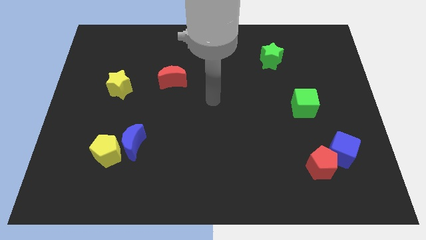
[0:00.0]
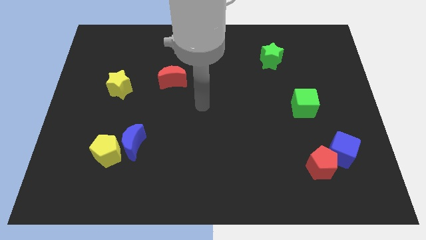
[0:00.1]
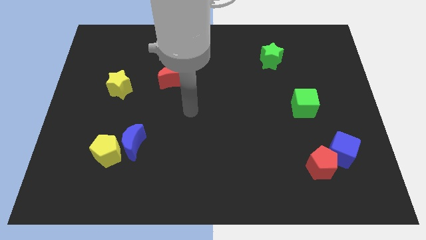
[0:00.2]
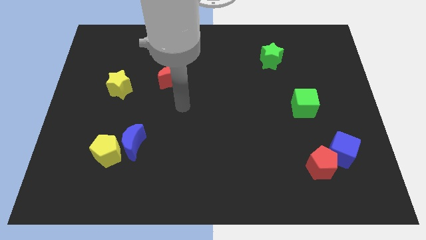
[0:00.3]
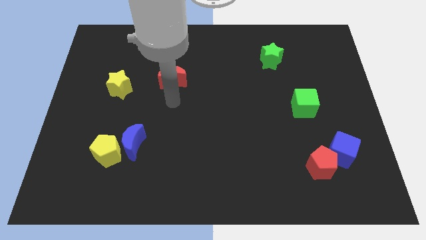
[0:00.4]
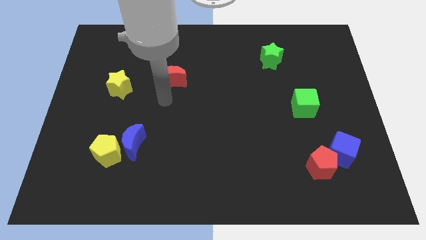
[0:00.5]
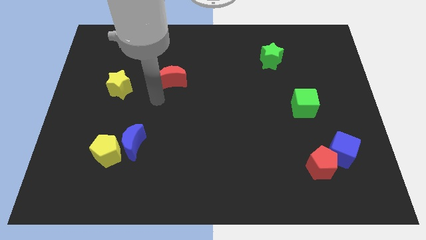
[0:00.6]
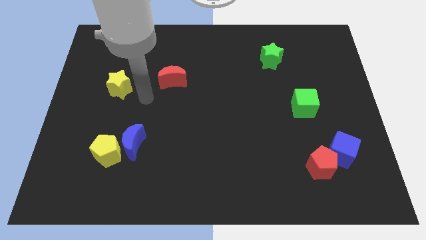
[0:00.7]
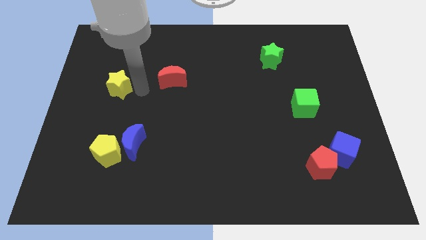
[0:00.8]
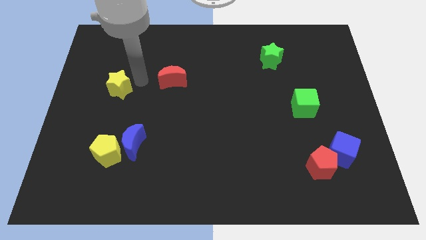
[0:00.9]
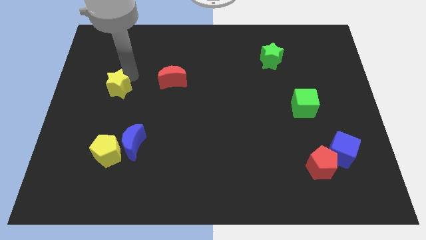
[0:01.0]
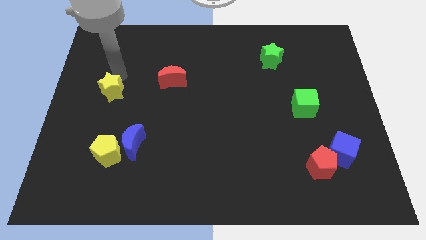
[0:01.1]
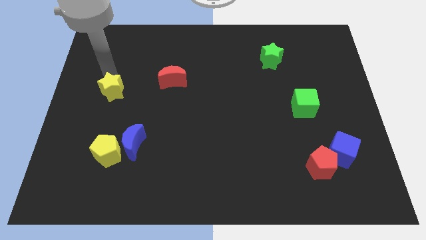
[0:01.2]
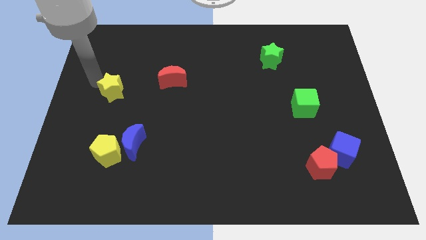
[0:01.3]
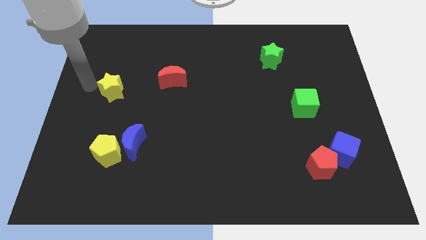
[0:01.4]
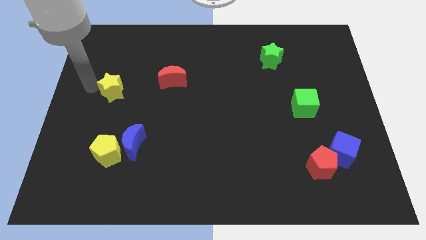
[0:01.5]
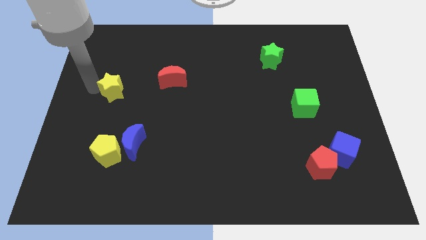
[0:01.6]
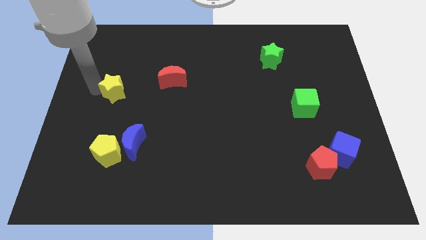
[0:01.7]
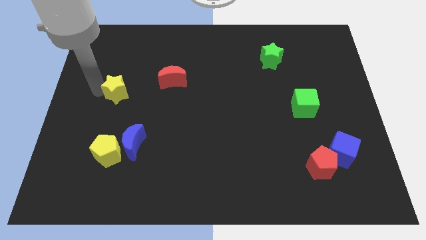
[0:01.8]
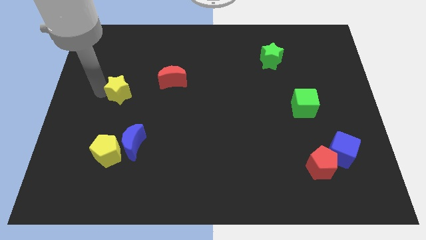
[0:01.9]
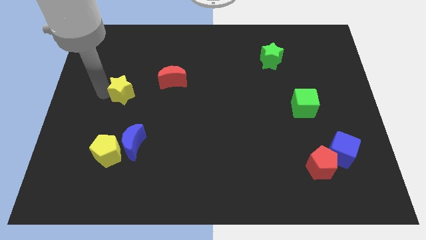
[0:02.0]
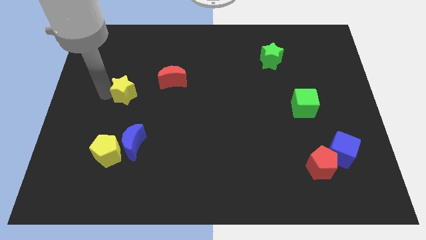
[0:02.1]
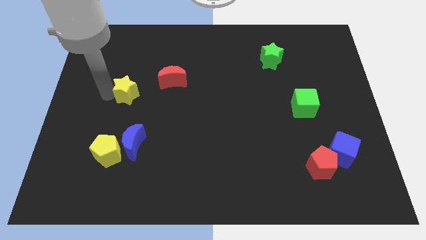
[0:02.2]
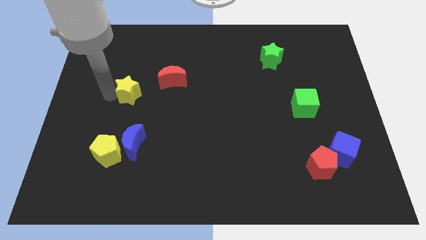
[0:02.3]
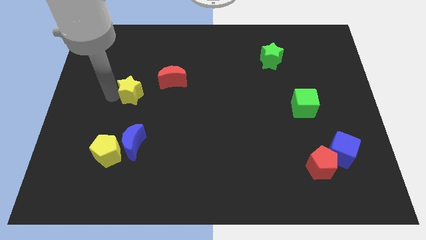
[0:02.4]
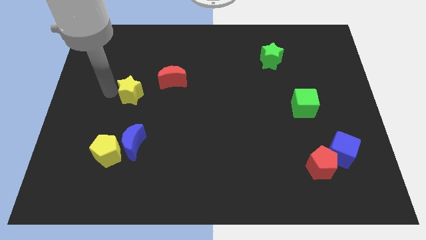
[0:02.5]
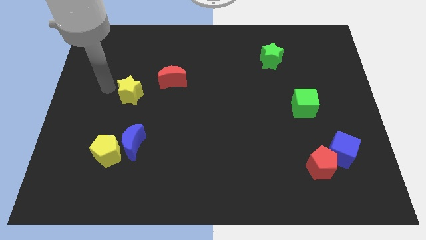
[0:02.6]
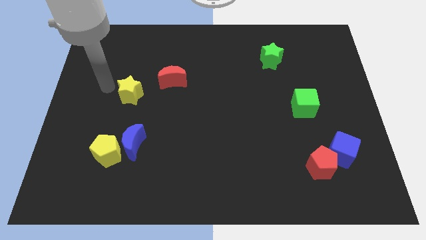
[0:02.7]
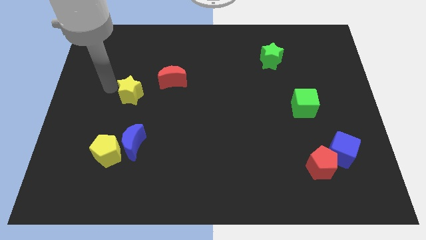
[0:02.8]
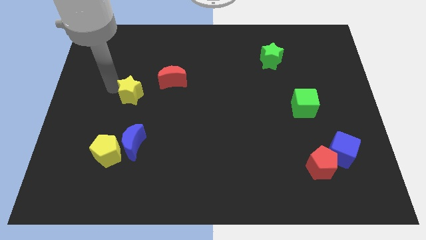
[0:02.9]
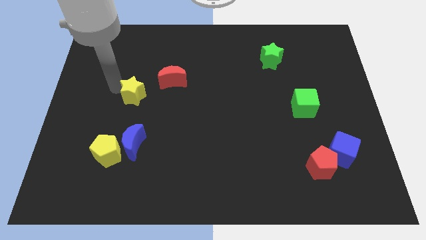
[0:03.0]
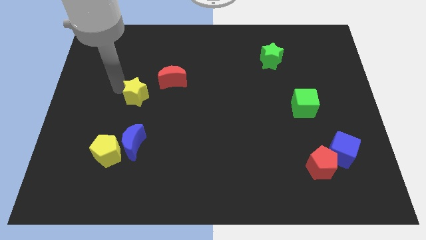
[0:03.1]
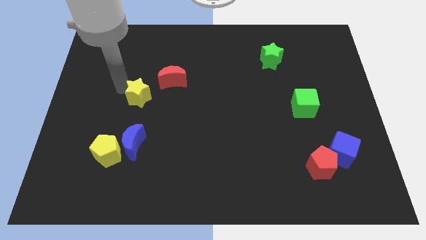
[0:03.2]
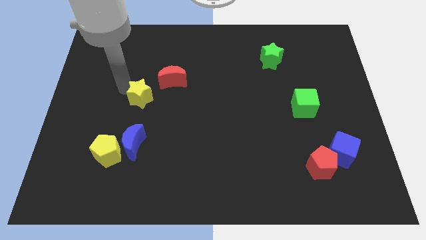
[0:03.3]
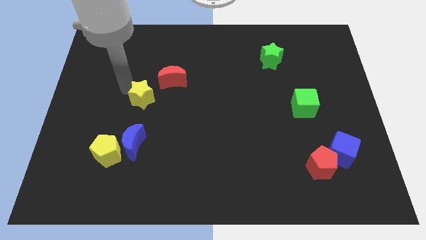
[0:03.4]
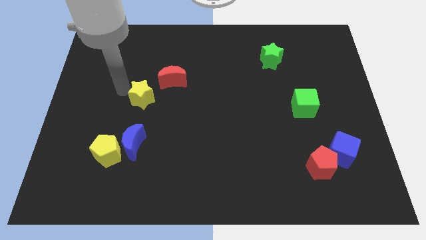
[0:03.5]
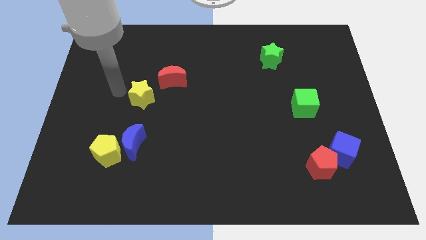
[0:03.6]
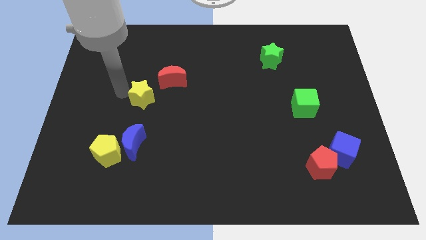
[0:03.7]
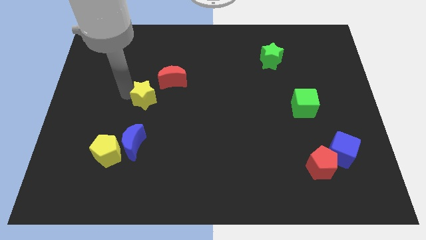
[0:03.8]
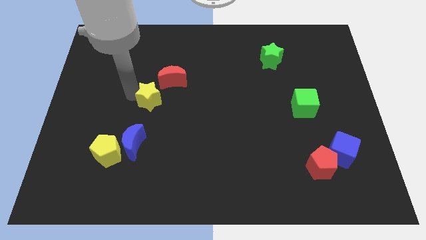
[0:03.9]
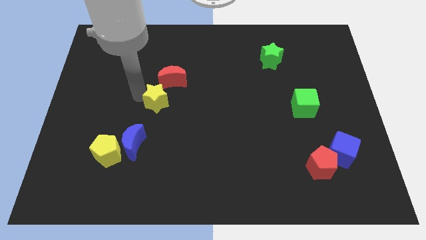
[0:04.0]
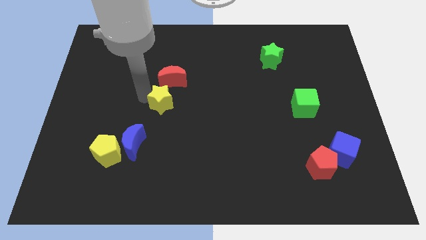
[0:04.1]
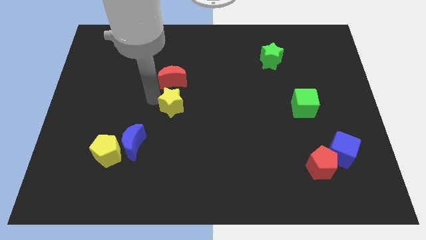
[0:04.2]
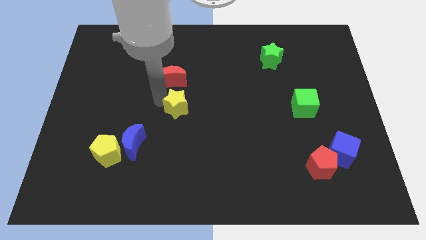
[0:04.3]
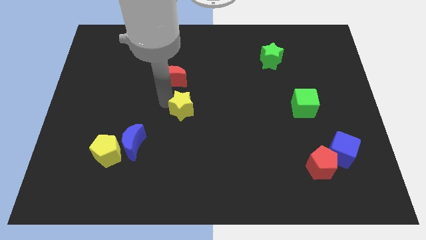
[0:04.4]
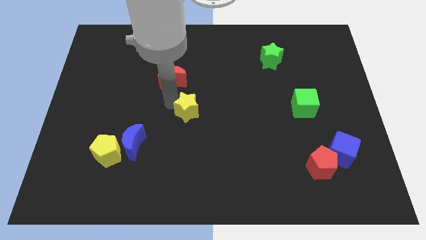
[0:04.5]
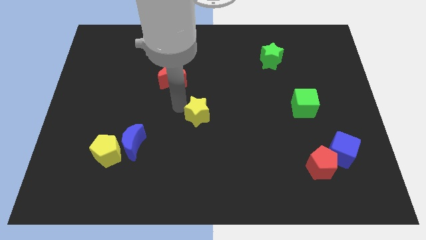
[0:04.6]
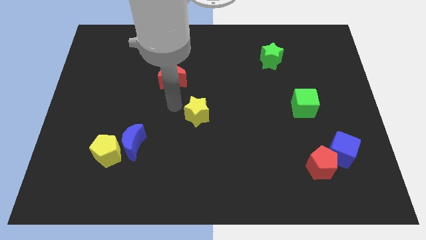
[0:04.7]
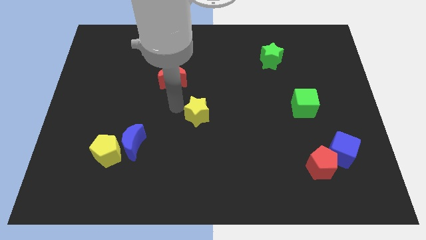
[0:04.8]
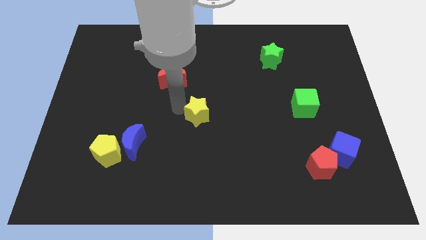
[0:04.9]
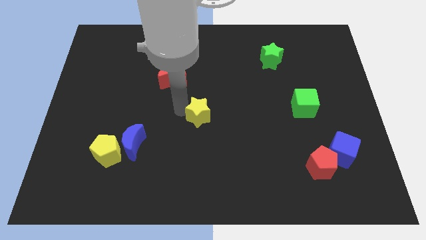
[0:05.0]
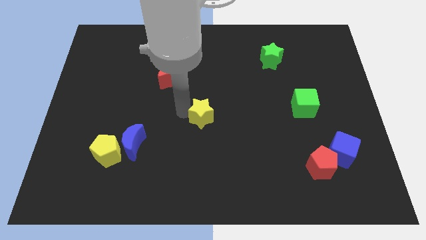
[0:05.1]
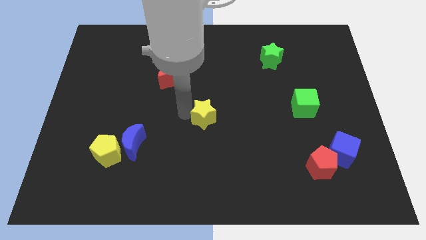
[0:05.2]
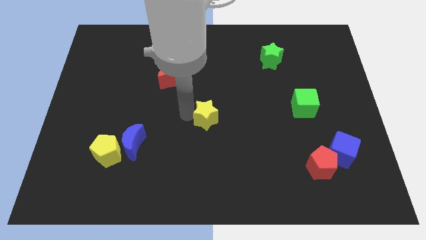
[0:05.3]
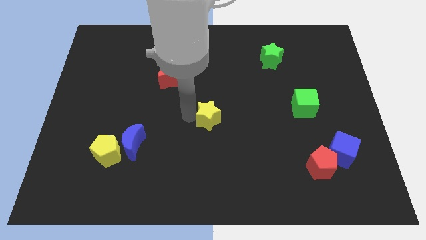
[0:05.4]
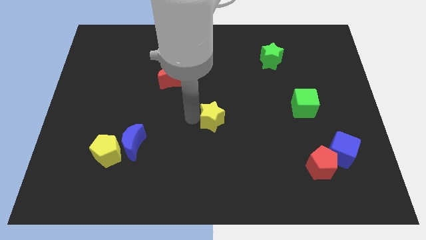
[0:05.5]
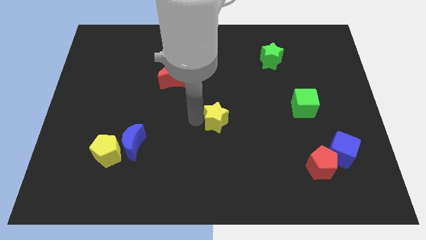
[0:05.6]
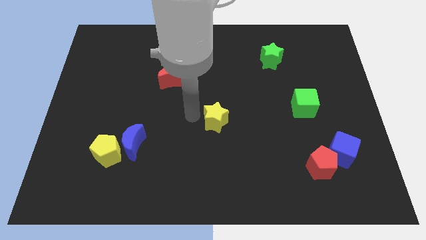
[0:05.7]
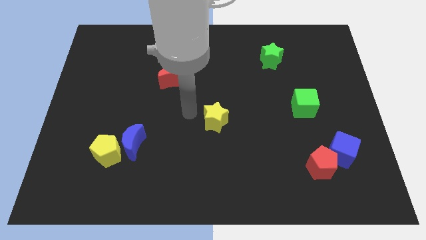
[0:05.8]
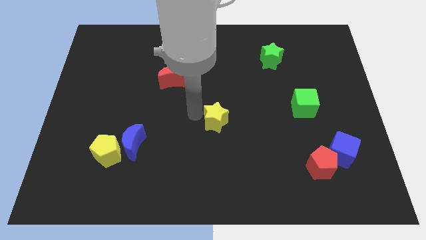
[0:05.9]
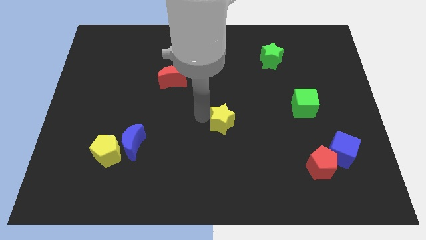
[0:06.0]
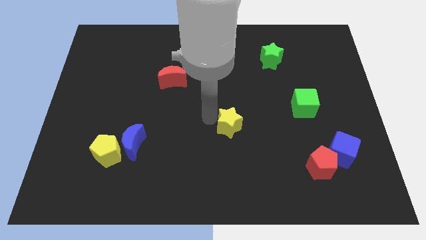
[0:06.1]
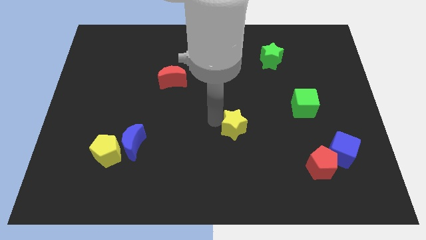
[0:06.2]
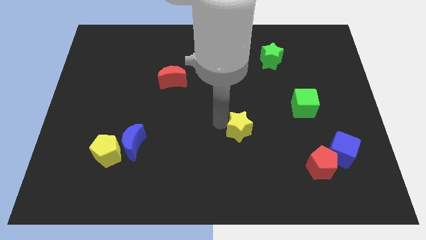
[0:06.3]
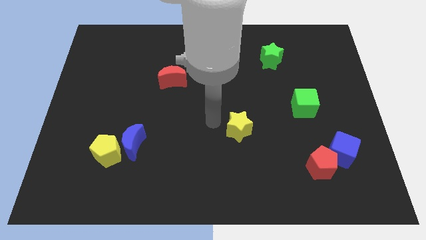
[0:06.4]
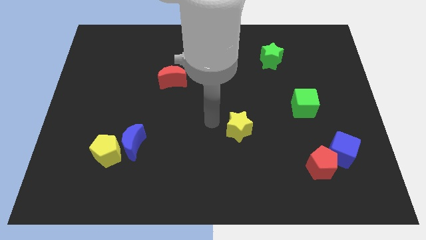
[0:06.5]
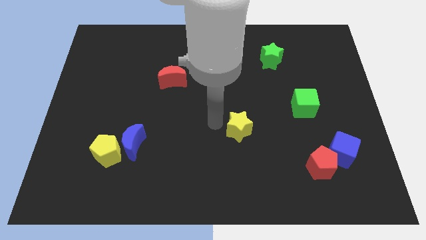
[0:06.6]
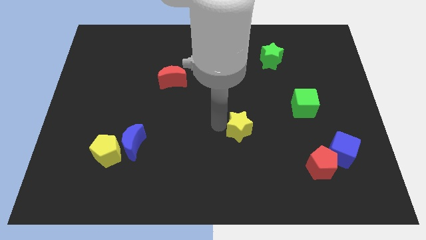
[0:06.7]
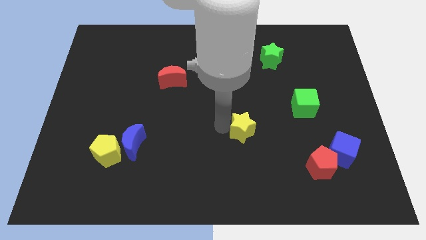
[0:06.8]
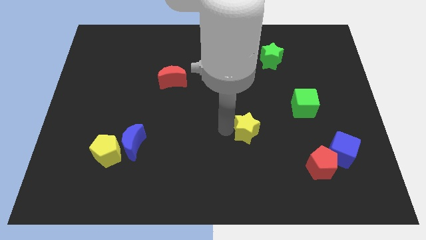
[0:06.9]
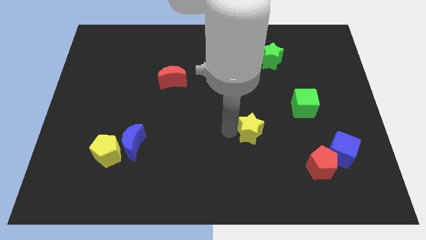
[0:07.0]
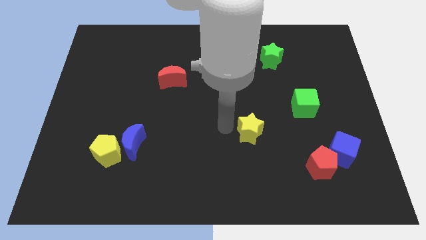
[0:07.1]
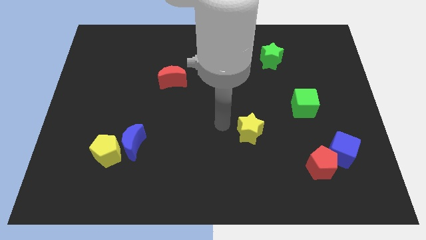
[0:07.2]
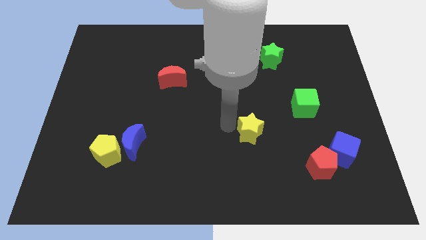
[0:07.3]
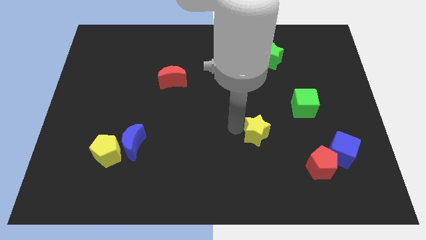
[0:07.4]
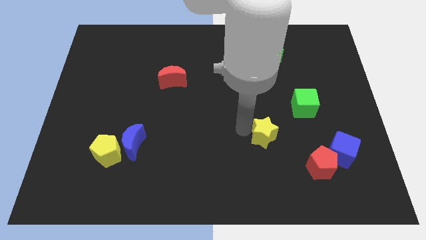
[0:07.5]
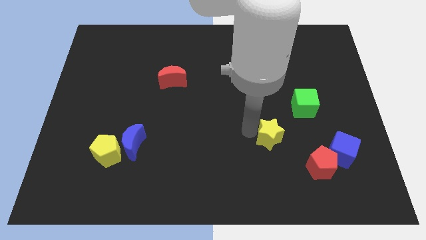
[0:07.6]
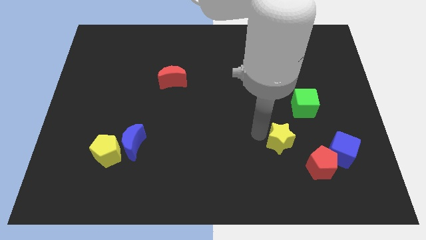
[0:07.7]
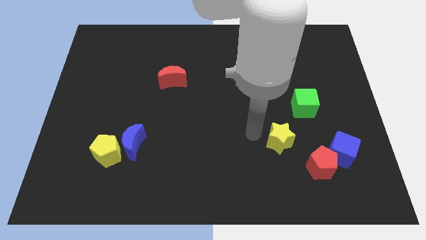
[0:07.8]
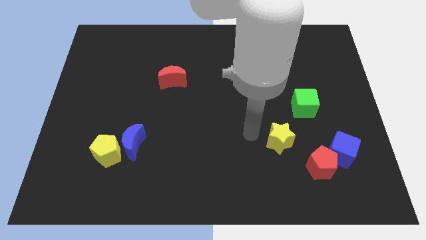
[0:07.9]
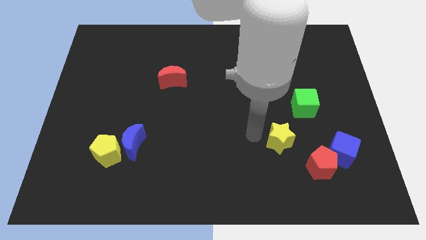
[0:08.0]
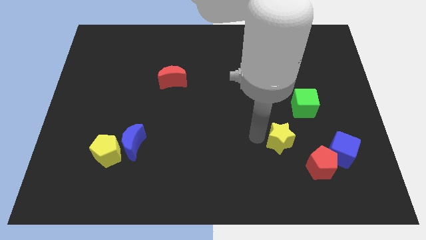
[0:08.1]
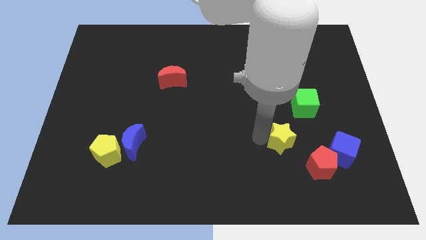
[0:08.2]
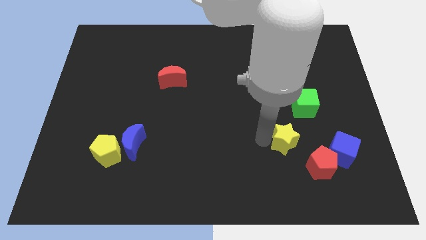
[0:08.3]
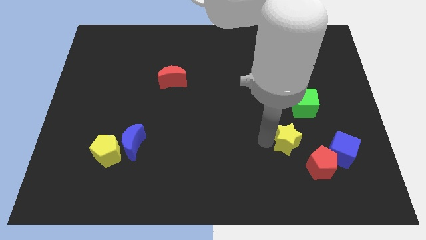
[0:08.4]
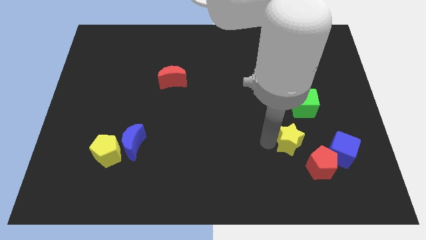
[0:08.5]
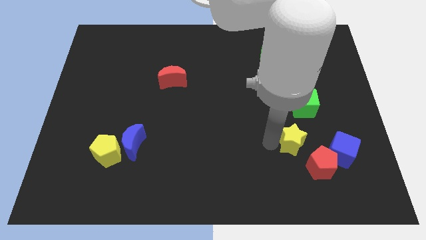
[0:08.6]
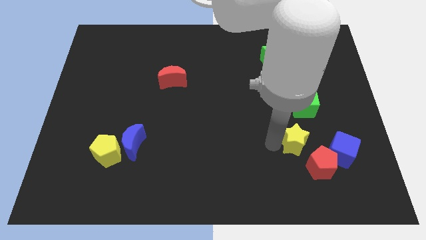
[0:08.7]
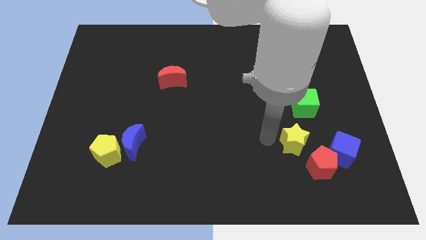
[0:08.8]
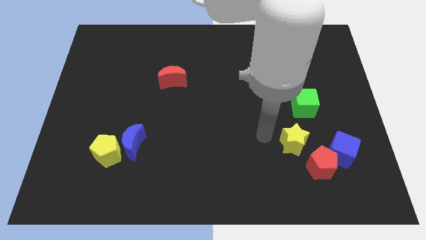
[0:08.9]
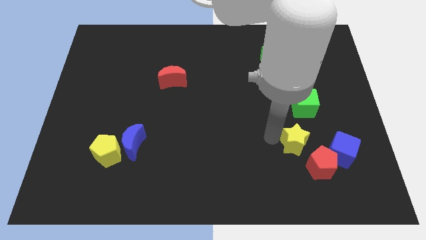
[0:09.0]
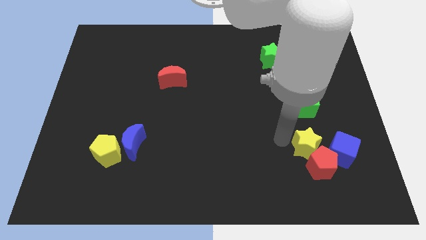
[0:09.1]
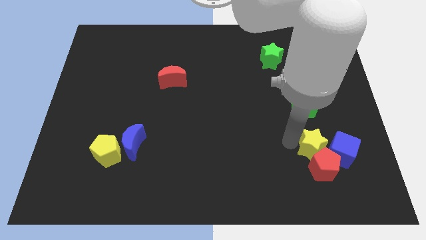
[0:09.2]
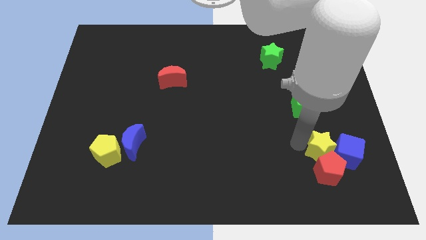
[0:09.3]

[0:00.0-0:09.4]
move the yellow star next to the blue cube
